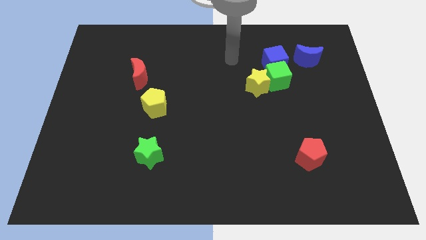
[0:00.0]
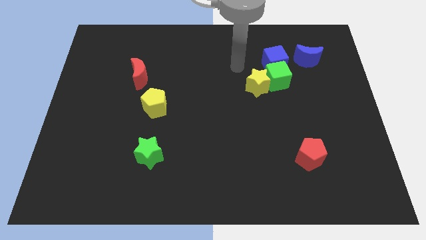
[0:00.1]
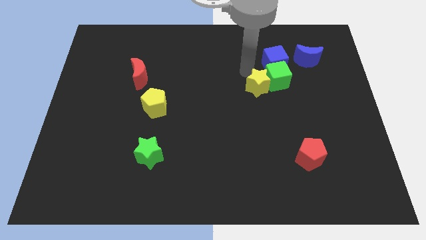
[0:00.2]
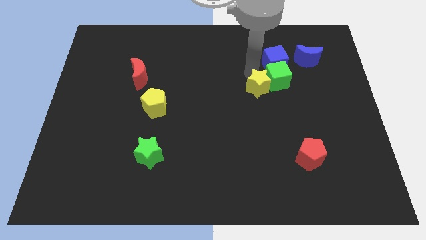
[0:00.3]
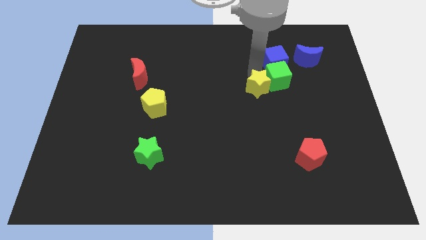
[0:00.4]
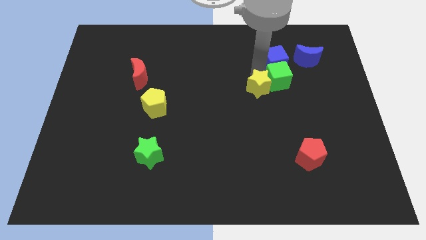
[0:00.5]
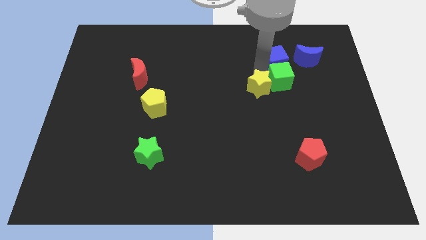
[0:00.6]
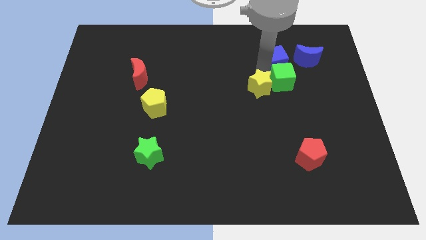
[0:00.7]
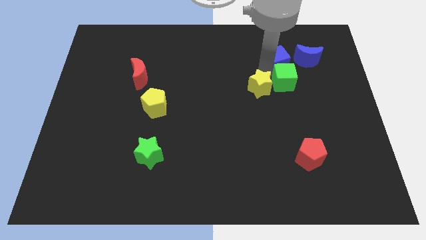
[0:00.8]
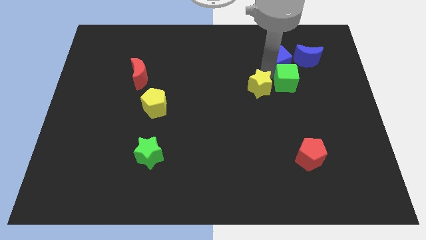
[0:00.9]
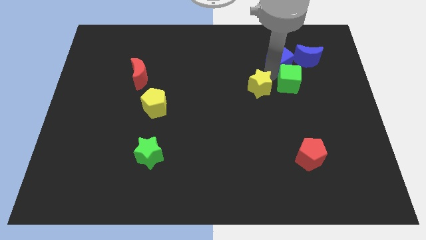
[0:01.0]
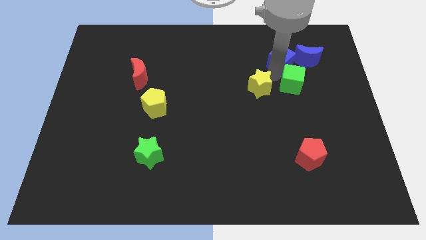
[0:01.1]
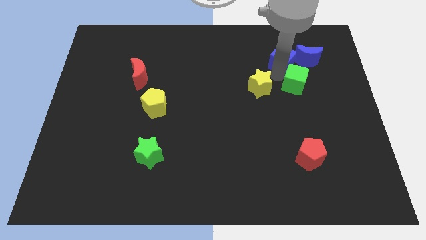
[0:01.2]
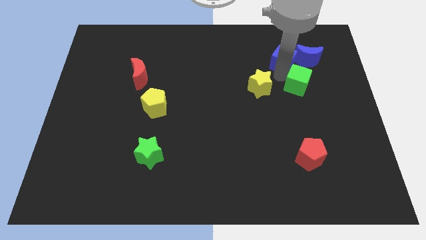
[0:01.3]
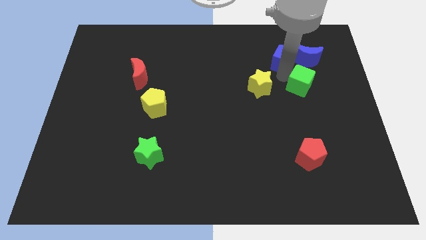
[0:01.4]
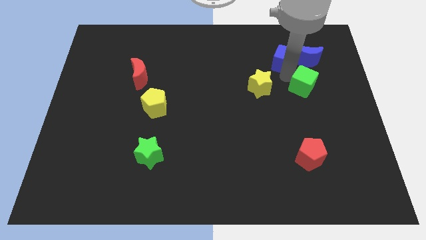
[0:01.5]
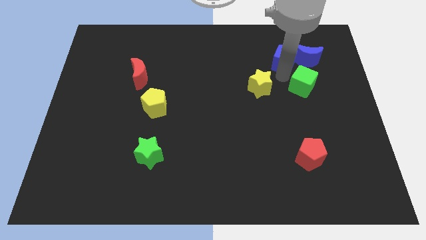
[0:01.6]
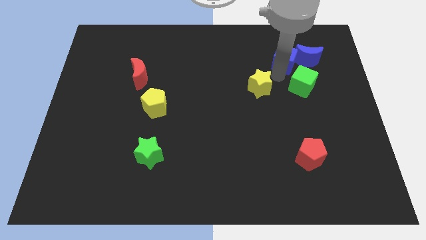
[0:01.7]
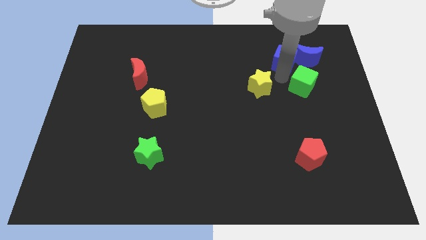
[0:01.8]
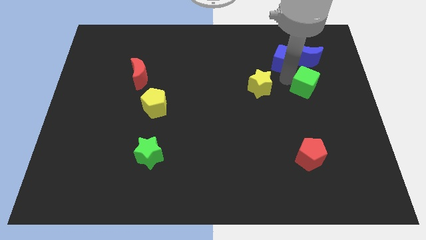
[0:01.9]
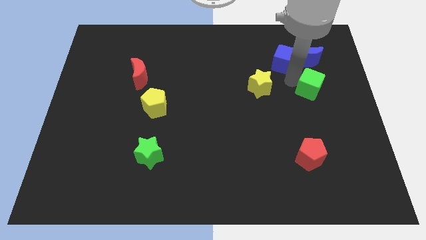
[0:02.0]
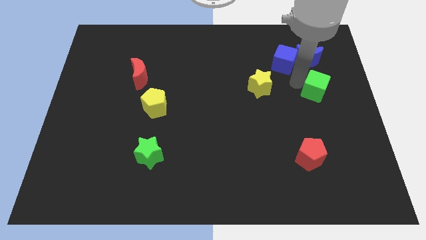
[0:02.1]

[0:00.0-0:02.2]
separate the green cube from the yellow star and blue cube

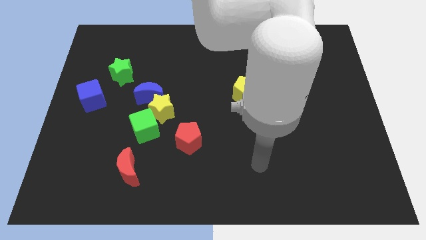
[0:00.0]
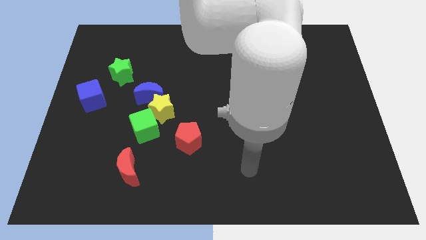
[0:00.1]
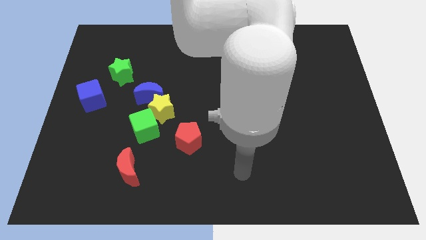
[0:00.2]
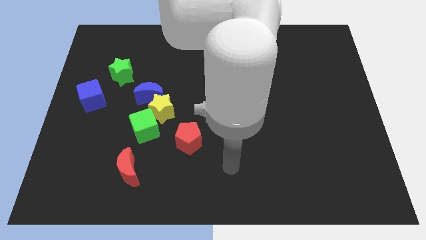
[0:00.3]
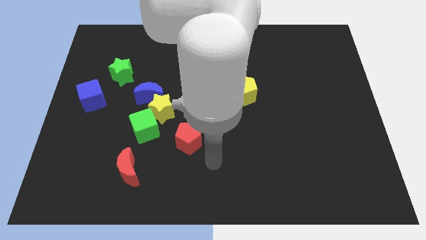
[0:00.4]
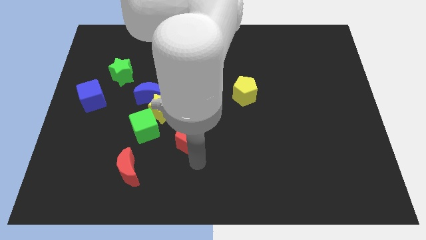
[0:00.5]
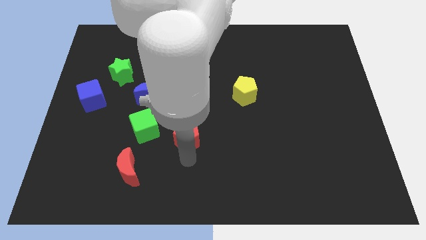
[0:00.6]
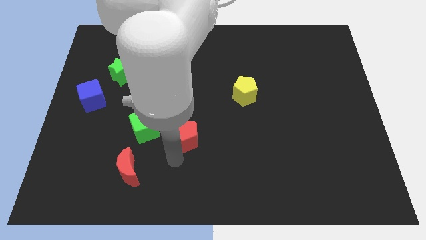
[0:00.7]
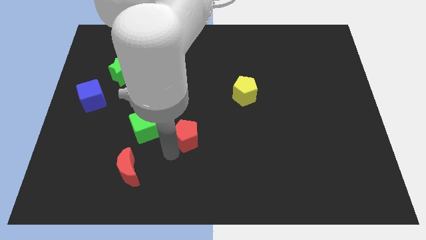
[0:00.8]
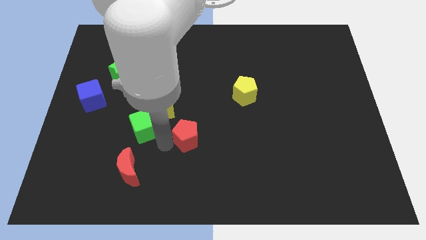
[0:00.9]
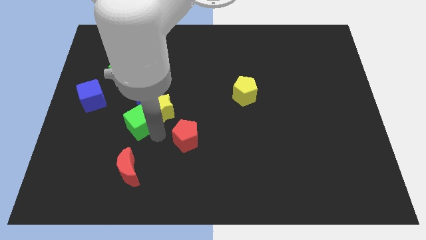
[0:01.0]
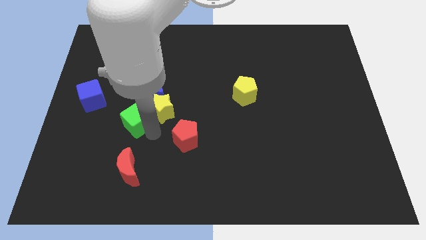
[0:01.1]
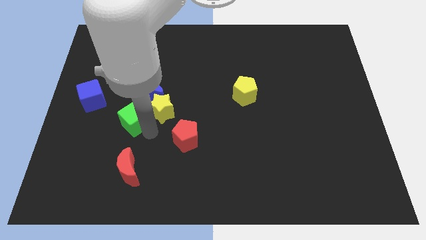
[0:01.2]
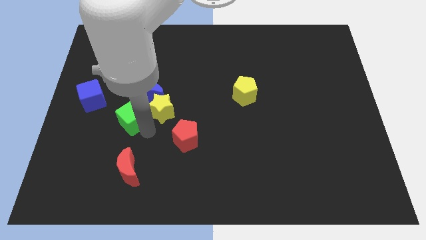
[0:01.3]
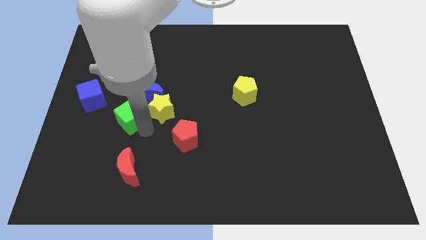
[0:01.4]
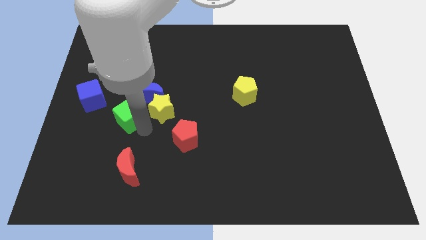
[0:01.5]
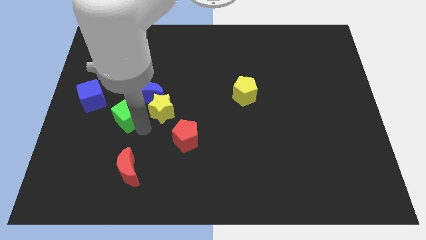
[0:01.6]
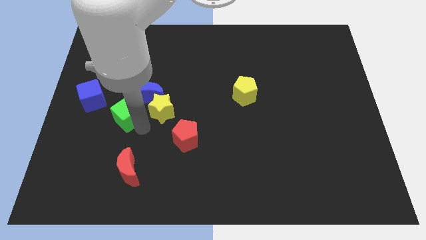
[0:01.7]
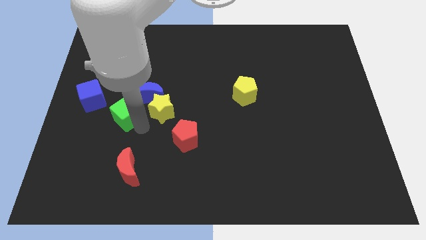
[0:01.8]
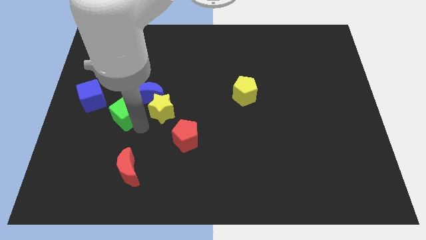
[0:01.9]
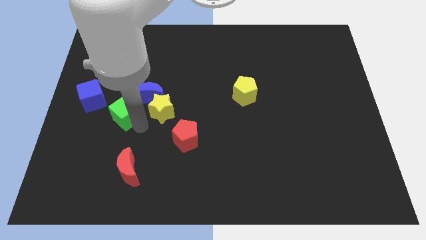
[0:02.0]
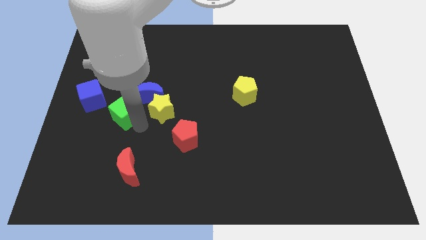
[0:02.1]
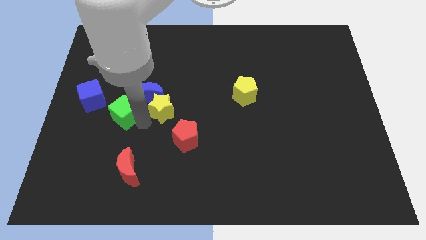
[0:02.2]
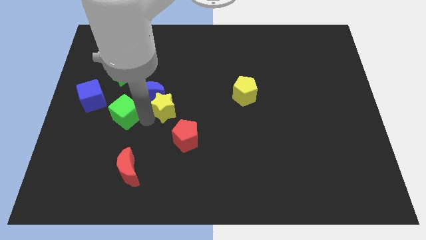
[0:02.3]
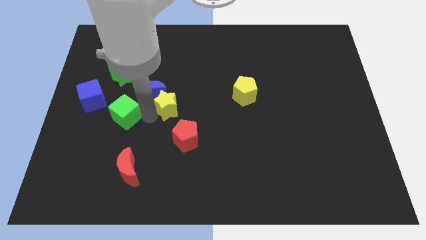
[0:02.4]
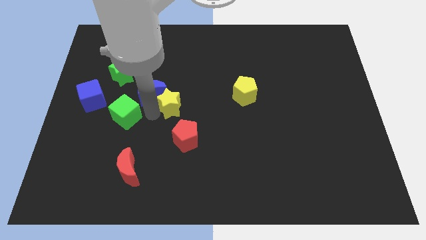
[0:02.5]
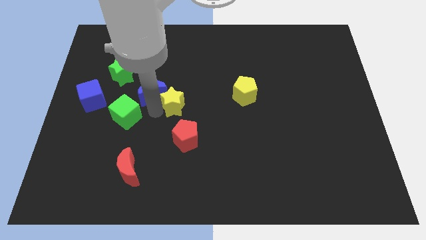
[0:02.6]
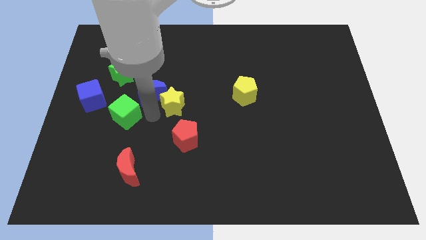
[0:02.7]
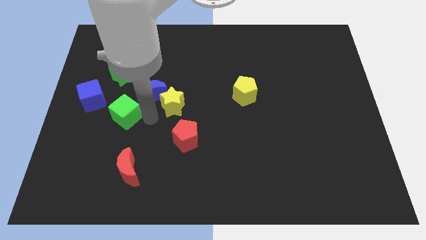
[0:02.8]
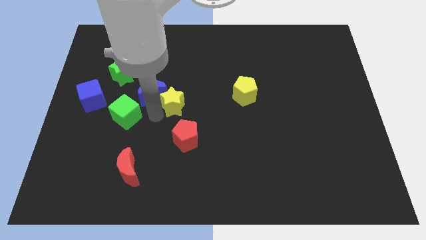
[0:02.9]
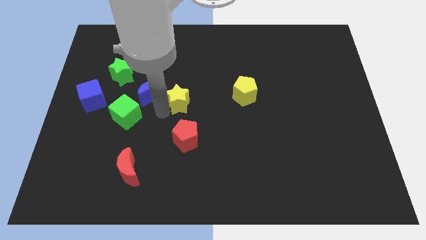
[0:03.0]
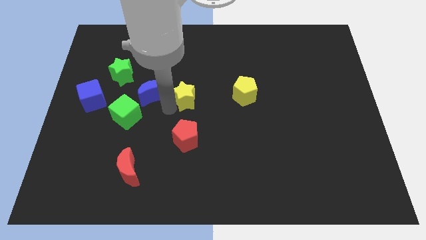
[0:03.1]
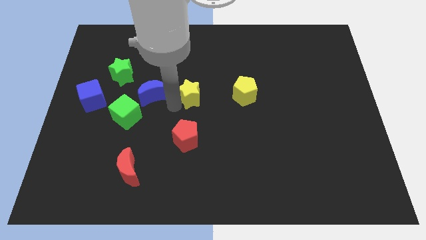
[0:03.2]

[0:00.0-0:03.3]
move the yellow star away from the blue moon, green cube, and red pentagon

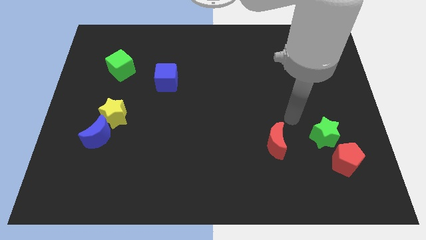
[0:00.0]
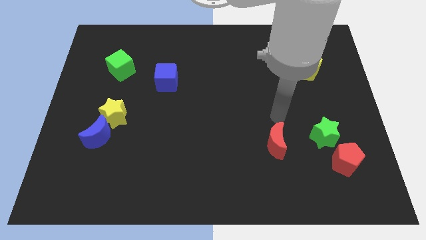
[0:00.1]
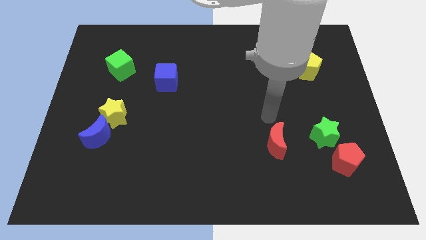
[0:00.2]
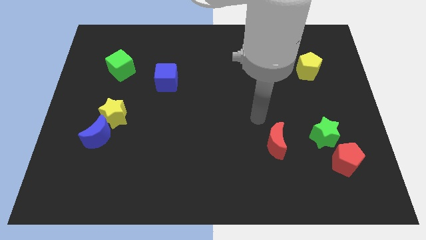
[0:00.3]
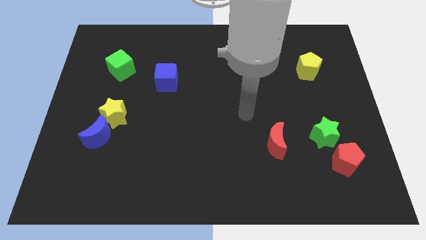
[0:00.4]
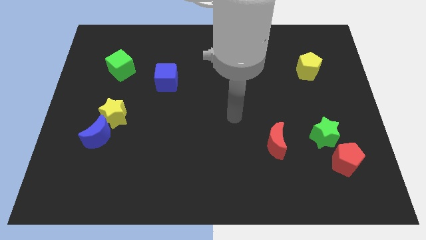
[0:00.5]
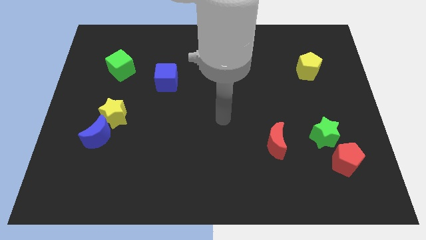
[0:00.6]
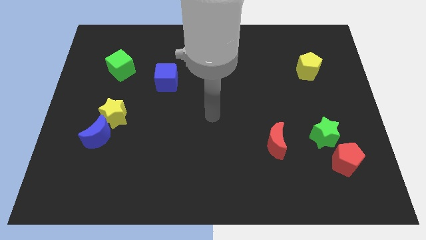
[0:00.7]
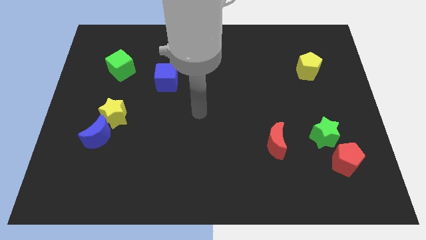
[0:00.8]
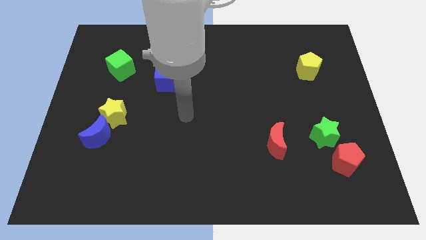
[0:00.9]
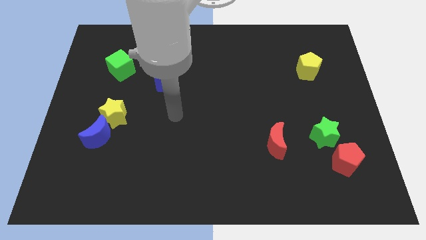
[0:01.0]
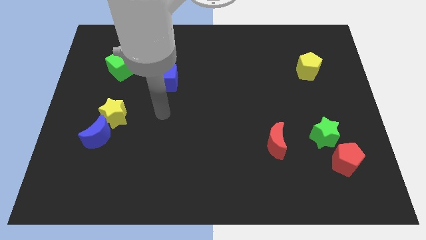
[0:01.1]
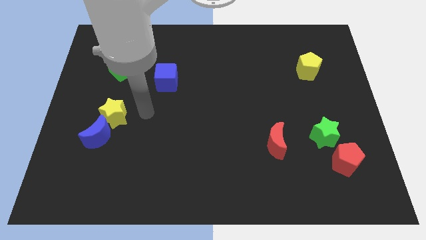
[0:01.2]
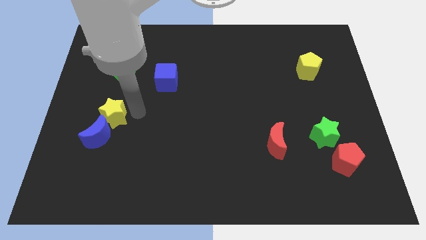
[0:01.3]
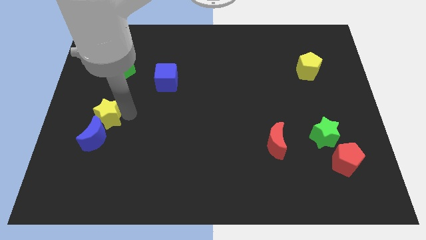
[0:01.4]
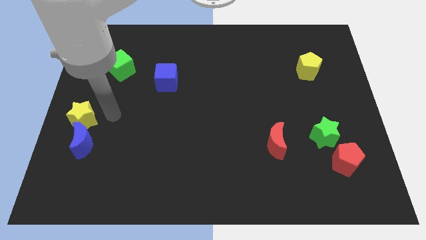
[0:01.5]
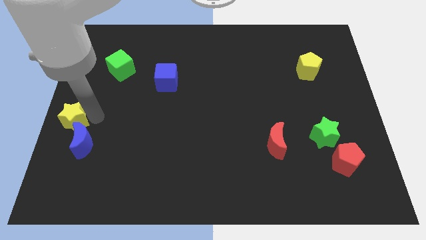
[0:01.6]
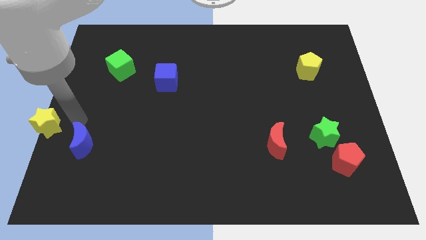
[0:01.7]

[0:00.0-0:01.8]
separate the blue moon from the yellow star

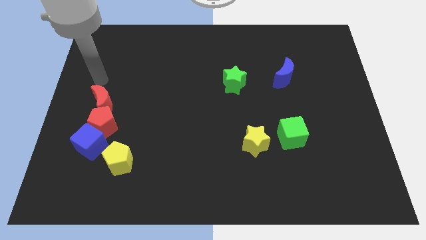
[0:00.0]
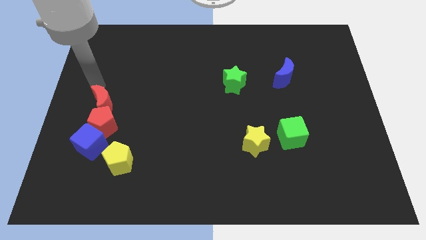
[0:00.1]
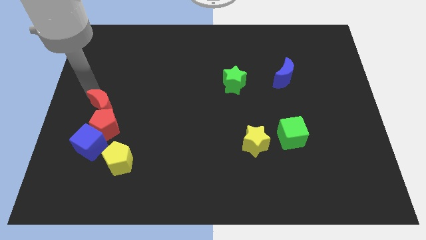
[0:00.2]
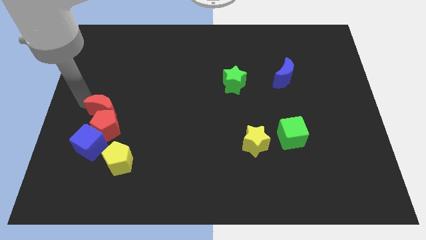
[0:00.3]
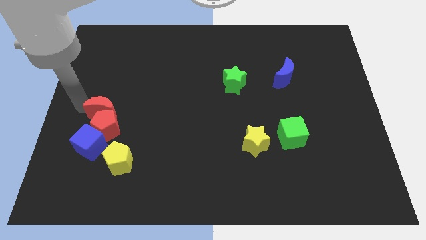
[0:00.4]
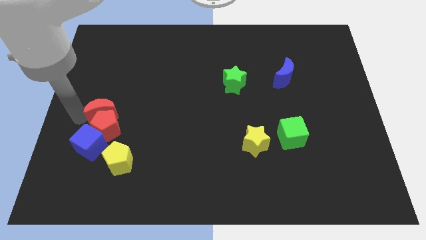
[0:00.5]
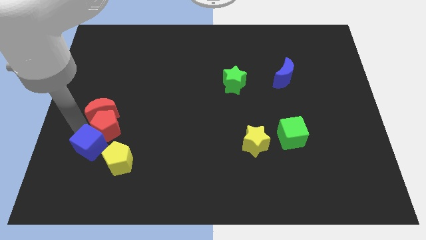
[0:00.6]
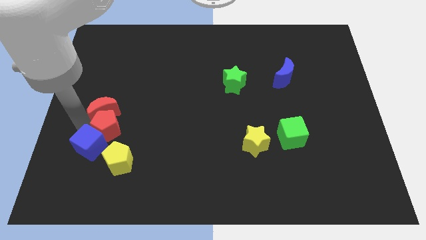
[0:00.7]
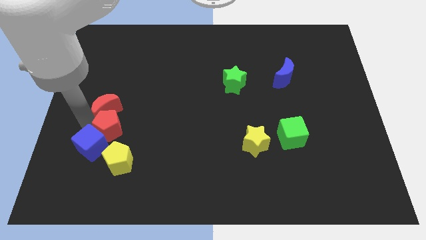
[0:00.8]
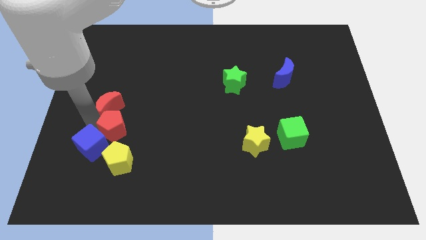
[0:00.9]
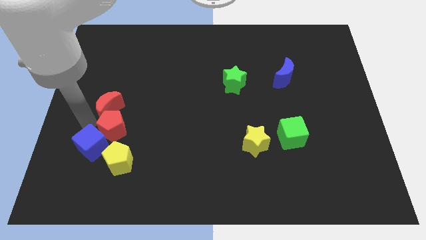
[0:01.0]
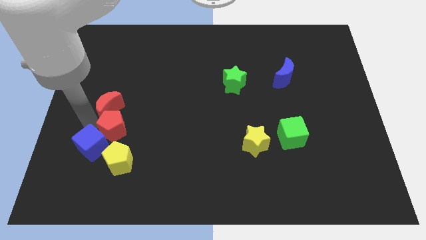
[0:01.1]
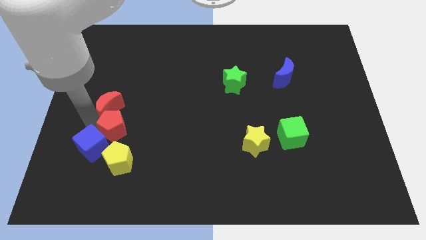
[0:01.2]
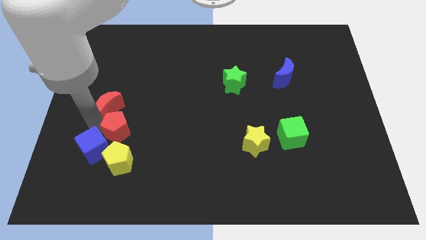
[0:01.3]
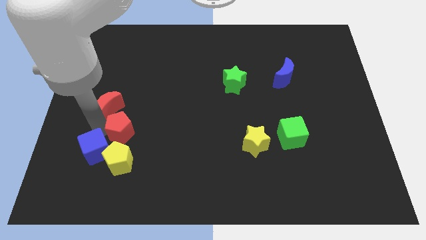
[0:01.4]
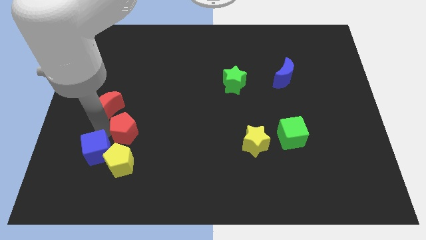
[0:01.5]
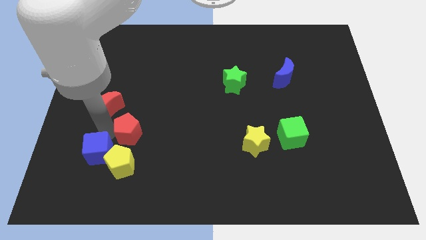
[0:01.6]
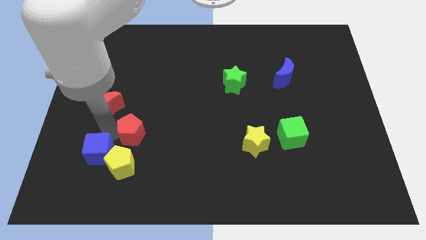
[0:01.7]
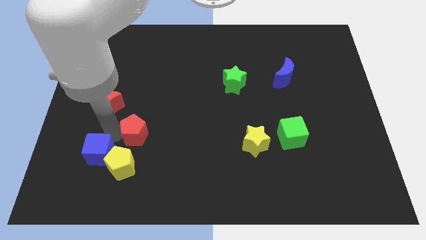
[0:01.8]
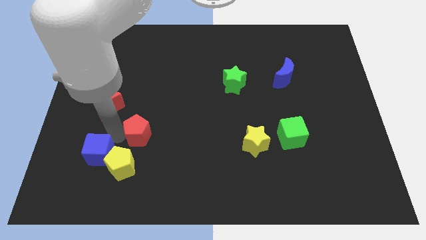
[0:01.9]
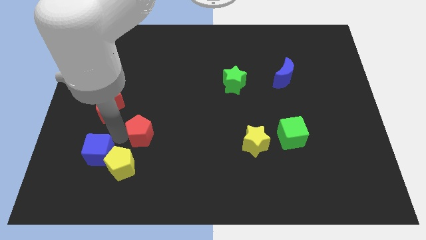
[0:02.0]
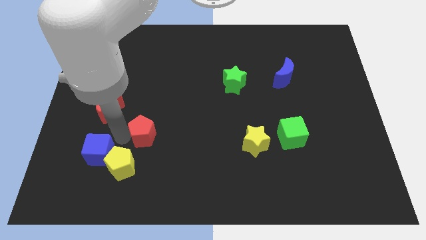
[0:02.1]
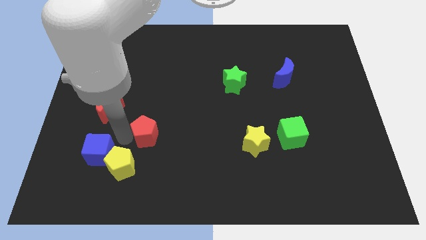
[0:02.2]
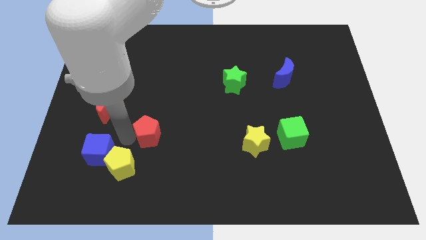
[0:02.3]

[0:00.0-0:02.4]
move the red pentagon away from the blue cube and red moon
